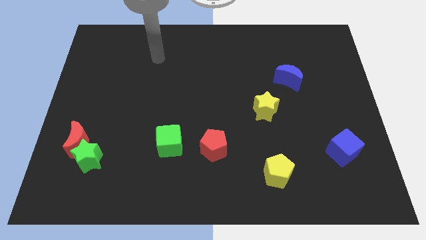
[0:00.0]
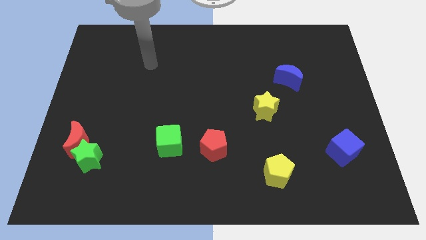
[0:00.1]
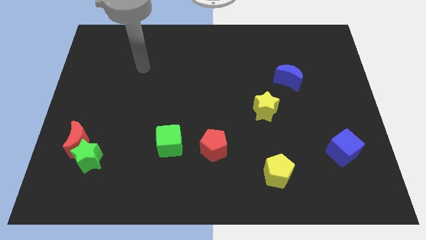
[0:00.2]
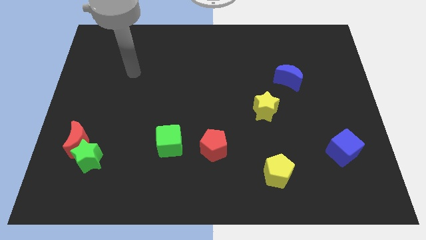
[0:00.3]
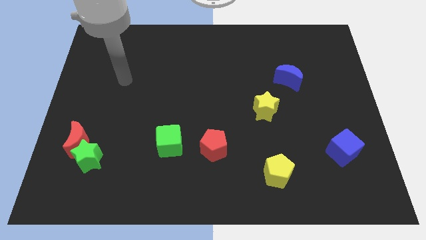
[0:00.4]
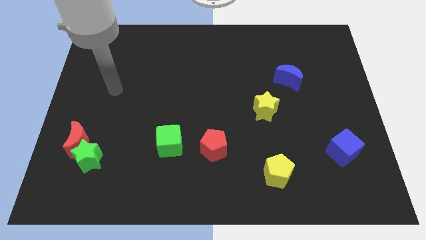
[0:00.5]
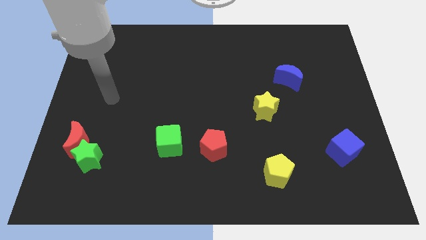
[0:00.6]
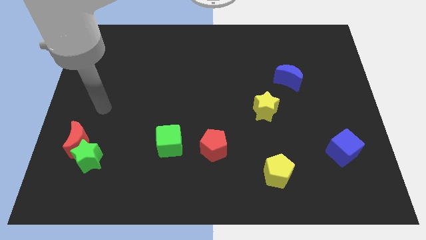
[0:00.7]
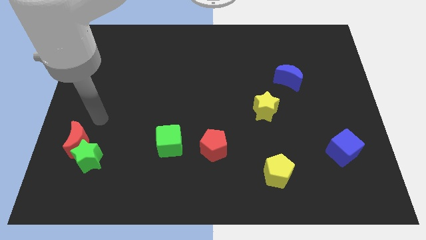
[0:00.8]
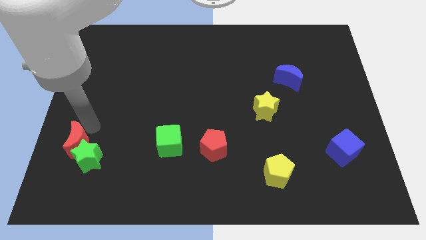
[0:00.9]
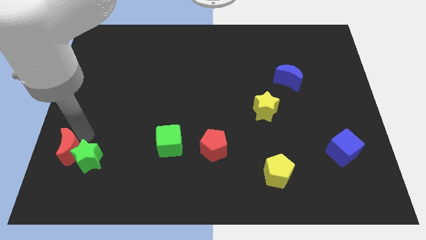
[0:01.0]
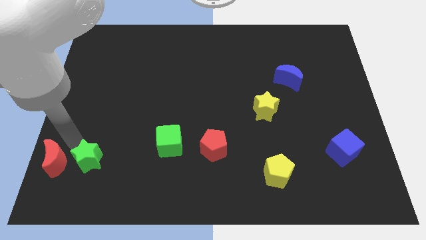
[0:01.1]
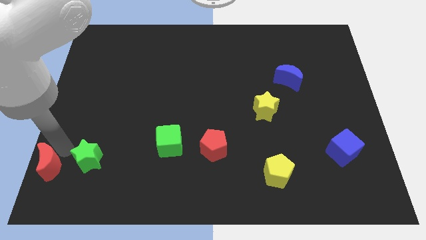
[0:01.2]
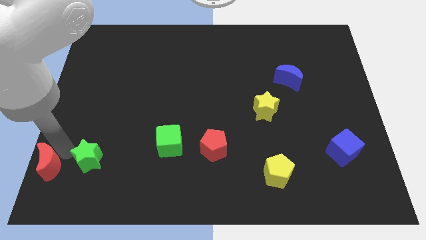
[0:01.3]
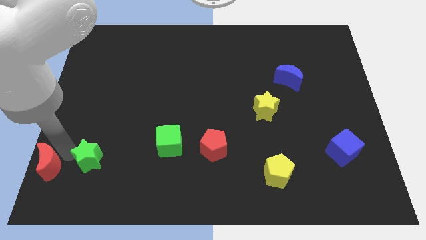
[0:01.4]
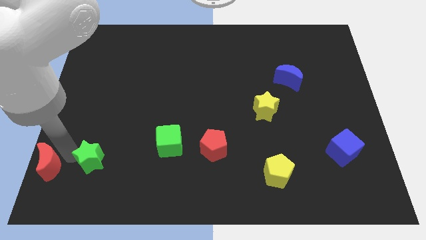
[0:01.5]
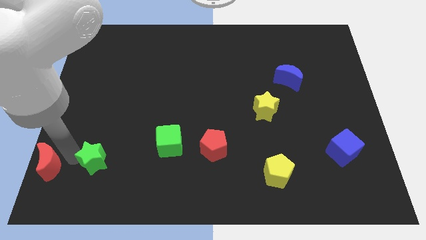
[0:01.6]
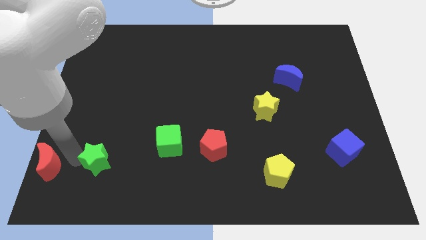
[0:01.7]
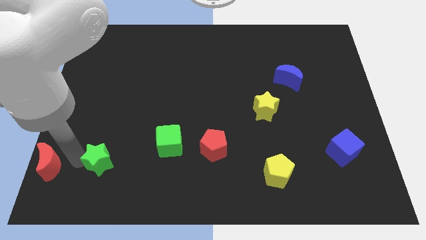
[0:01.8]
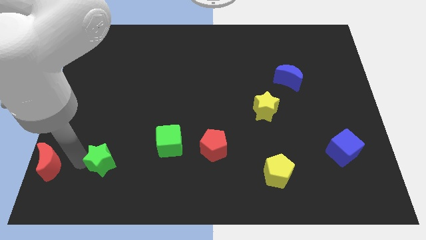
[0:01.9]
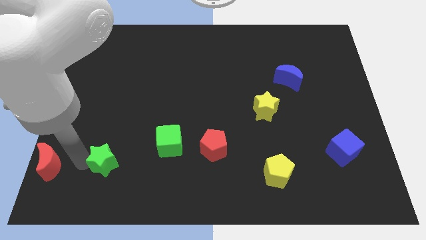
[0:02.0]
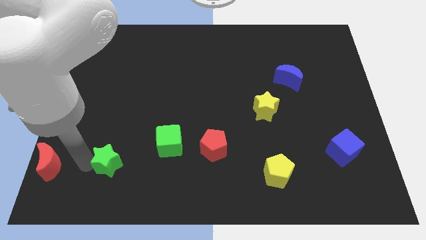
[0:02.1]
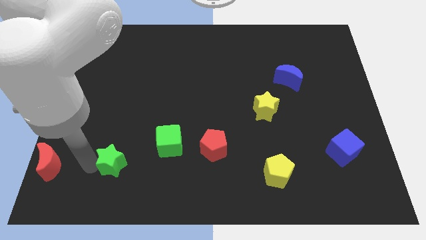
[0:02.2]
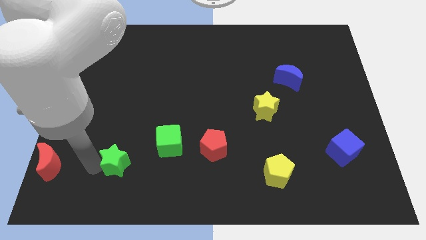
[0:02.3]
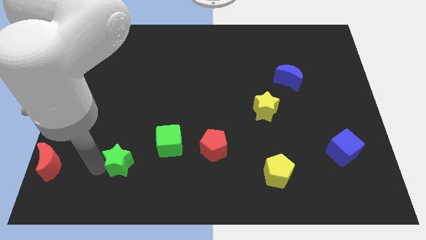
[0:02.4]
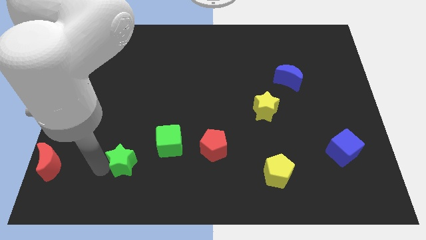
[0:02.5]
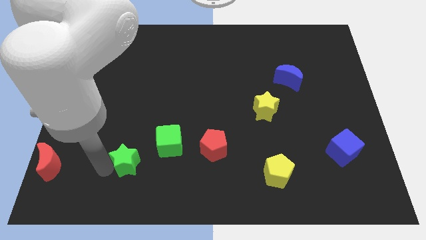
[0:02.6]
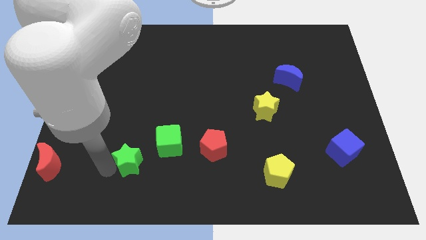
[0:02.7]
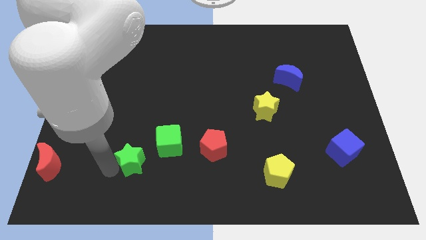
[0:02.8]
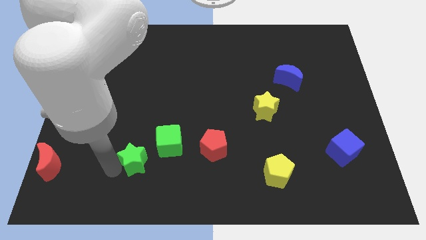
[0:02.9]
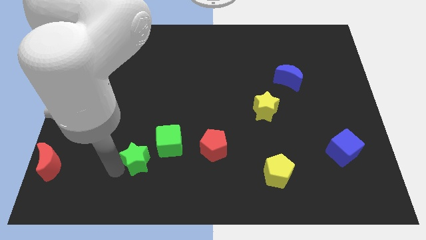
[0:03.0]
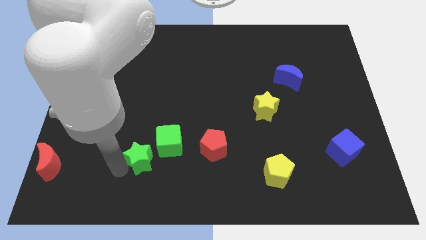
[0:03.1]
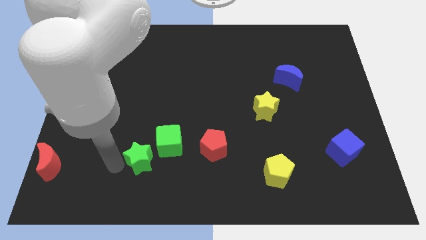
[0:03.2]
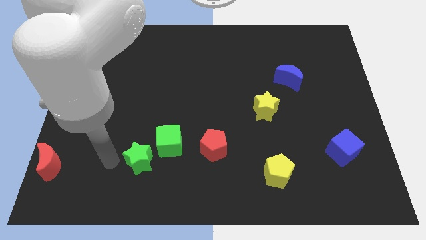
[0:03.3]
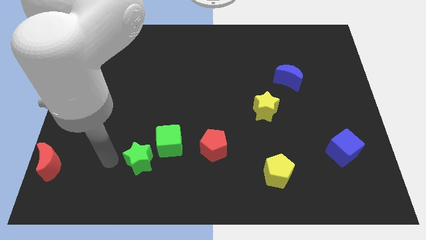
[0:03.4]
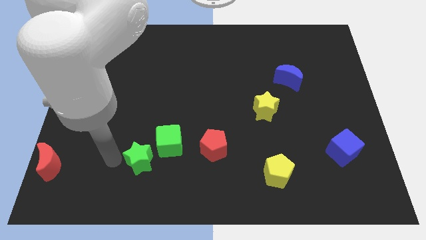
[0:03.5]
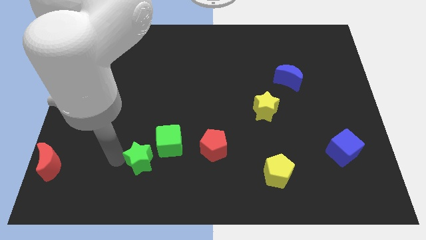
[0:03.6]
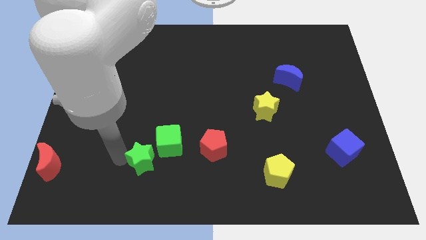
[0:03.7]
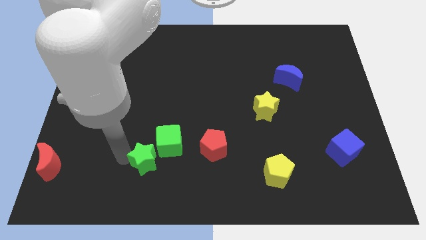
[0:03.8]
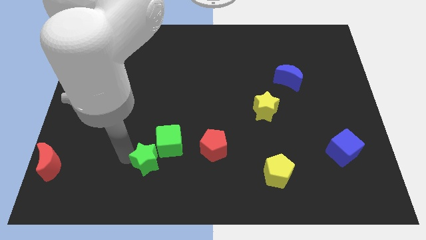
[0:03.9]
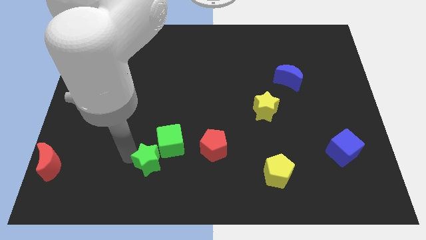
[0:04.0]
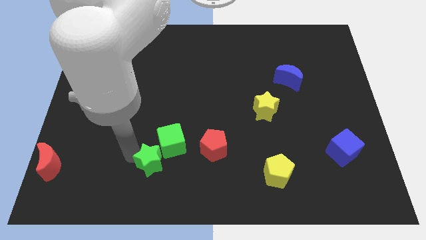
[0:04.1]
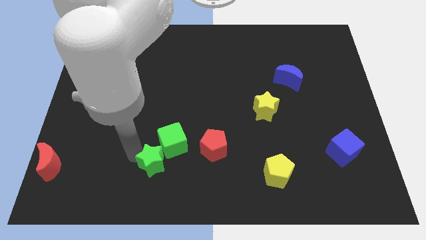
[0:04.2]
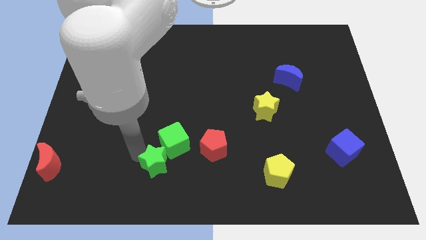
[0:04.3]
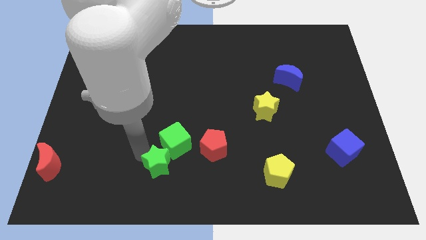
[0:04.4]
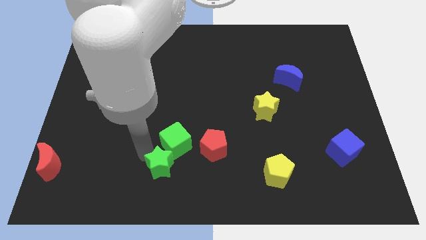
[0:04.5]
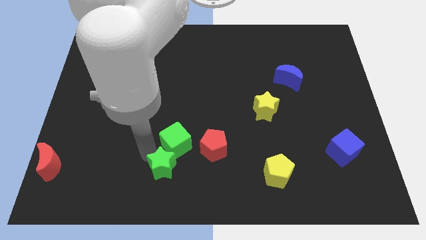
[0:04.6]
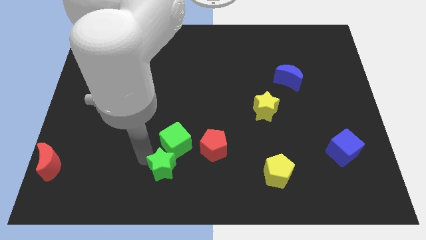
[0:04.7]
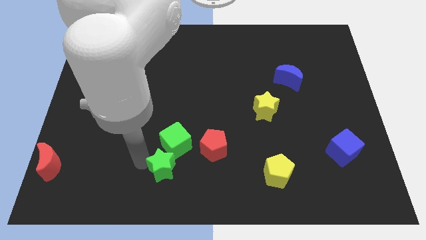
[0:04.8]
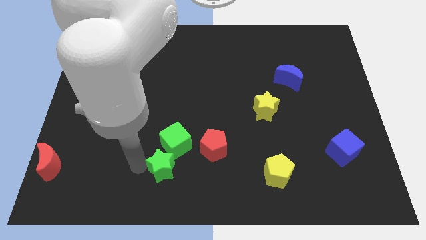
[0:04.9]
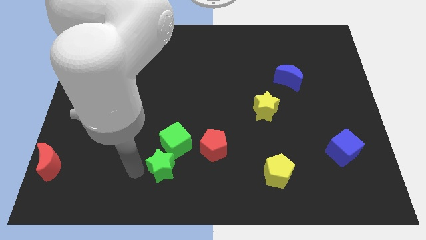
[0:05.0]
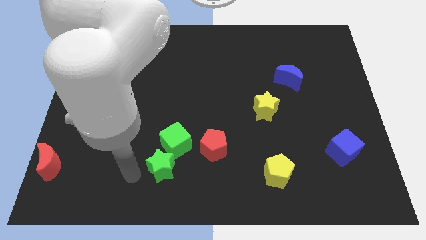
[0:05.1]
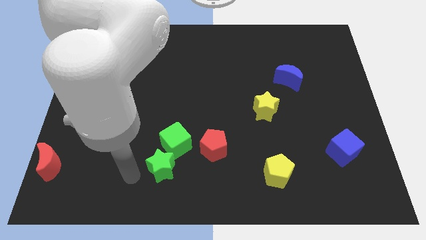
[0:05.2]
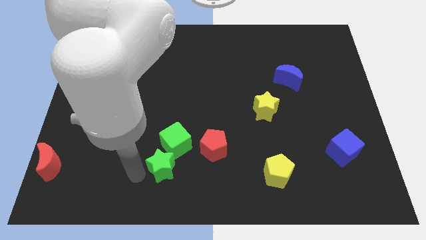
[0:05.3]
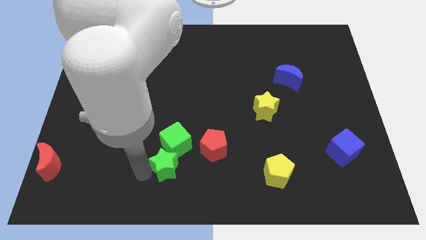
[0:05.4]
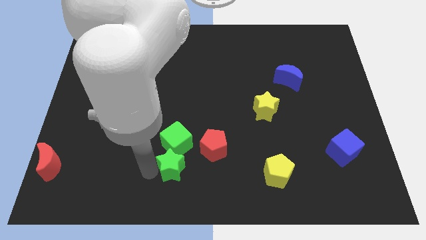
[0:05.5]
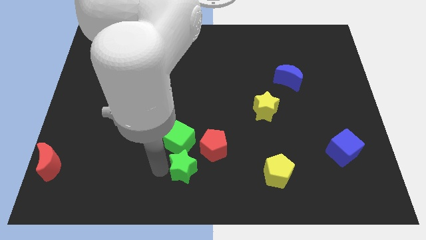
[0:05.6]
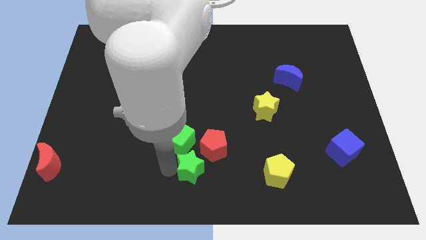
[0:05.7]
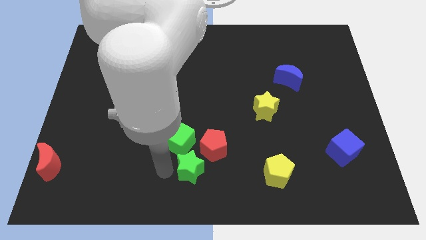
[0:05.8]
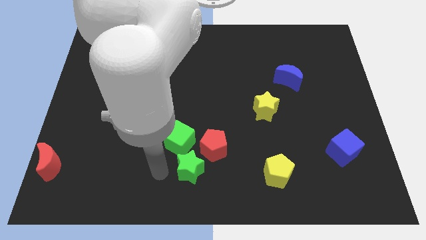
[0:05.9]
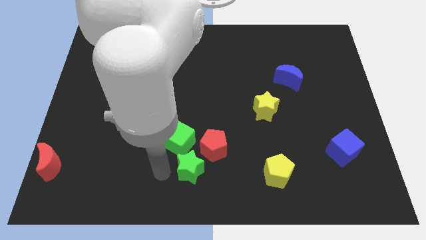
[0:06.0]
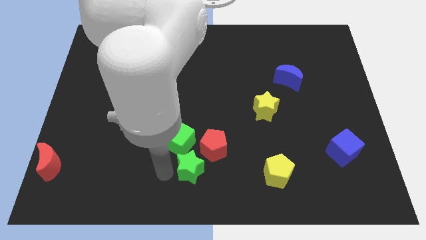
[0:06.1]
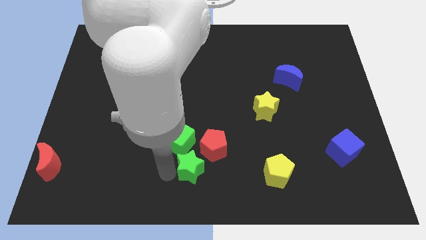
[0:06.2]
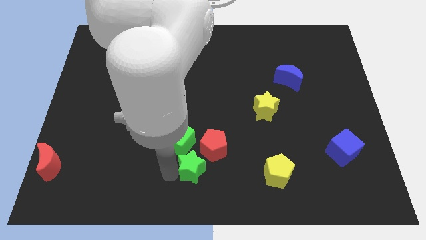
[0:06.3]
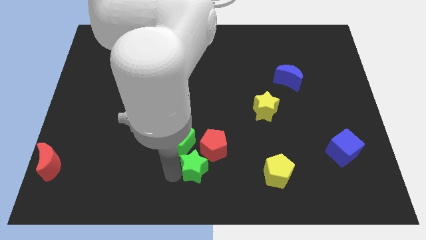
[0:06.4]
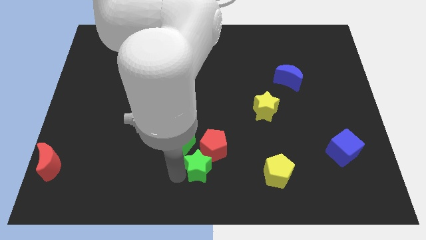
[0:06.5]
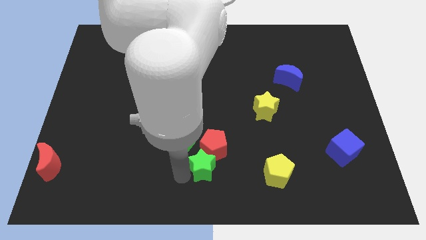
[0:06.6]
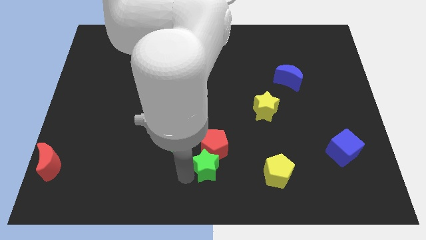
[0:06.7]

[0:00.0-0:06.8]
slide the green star to the bottom right side of the red pentagon
